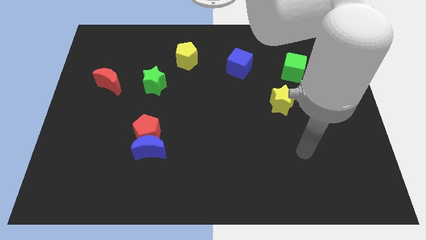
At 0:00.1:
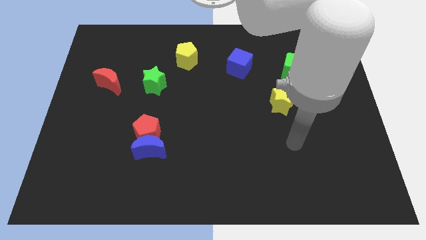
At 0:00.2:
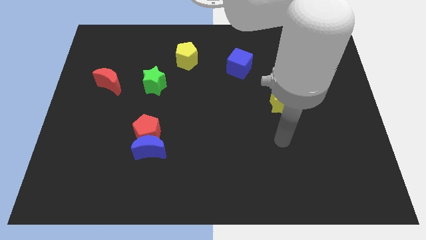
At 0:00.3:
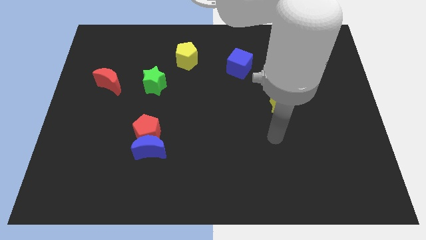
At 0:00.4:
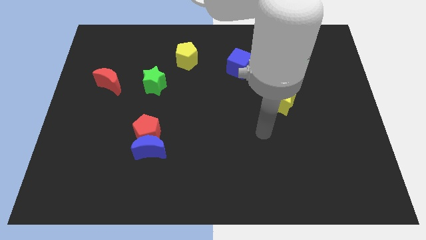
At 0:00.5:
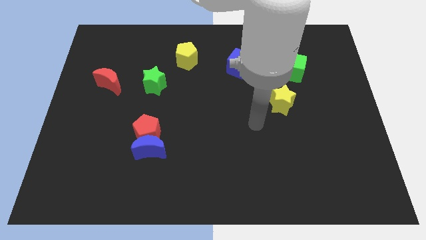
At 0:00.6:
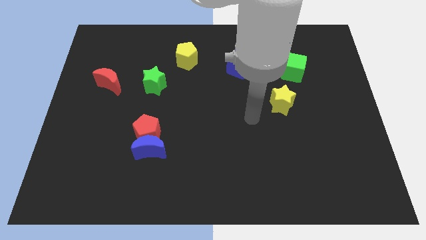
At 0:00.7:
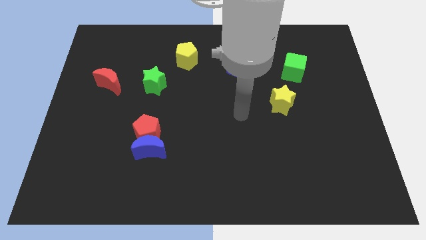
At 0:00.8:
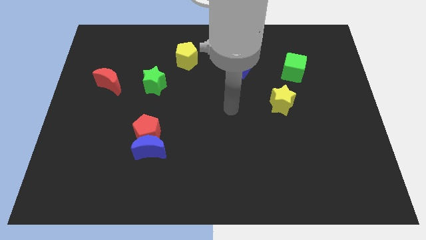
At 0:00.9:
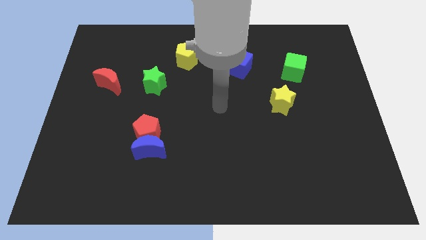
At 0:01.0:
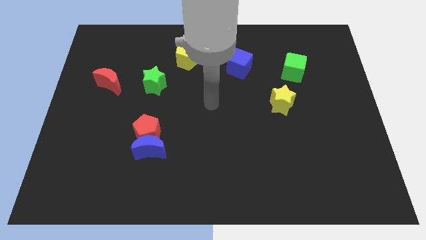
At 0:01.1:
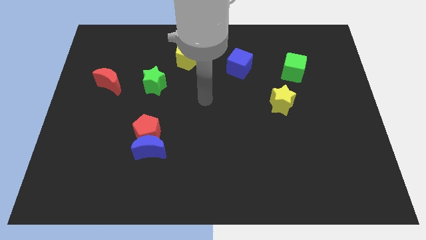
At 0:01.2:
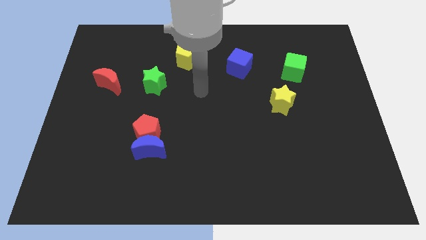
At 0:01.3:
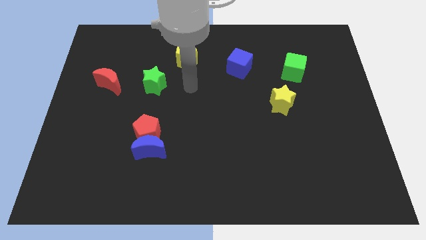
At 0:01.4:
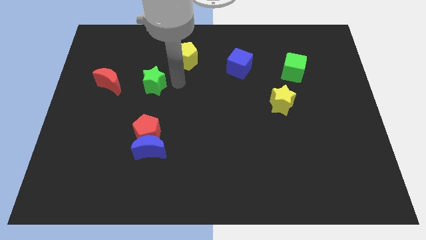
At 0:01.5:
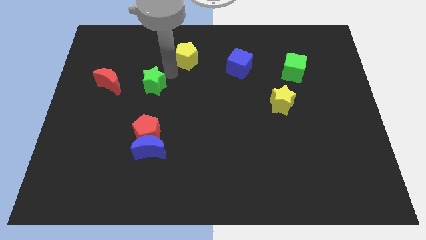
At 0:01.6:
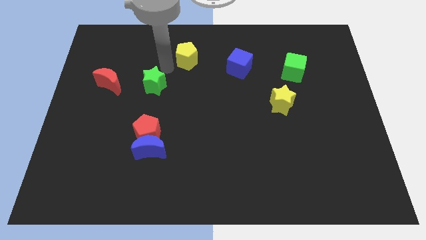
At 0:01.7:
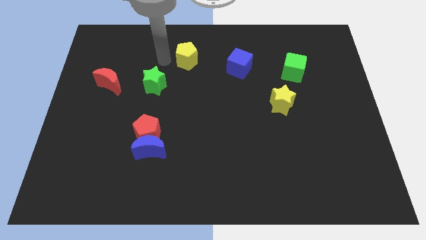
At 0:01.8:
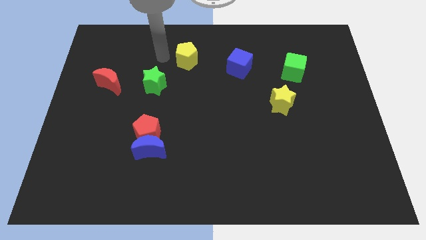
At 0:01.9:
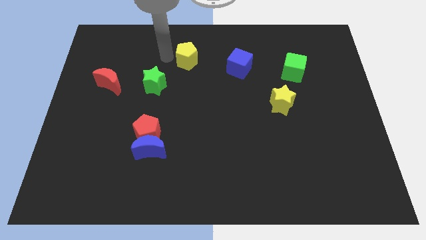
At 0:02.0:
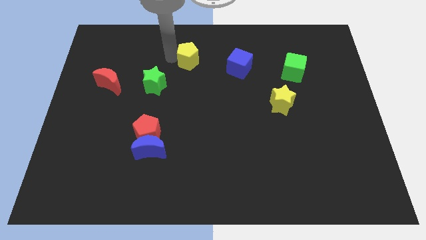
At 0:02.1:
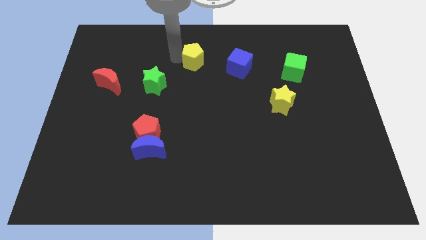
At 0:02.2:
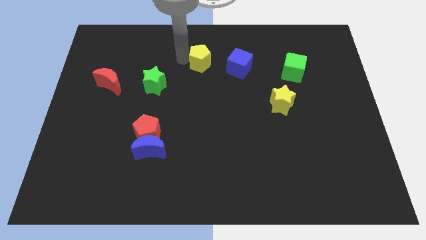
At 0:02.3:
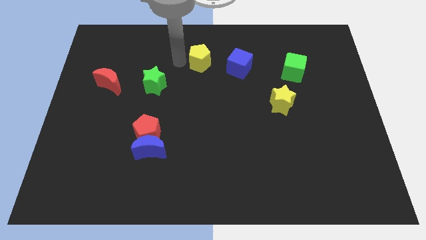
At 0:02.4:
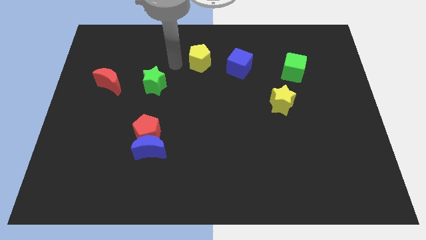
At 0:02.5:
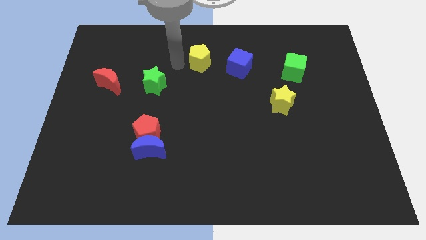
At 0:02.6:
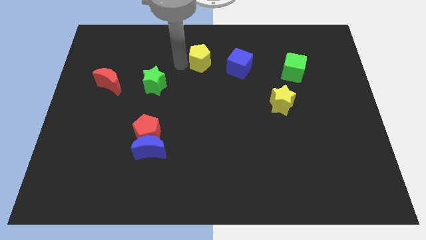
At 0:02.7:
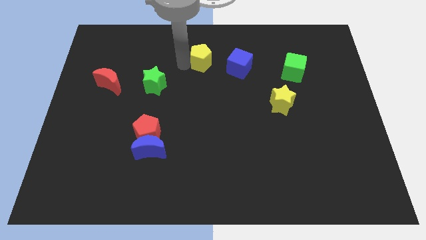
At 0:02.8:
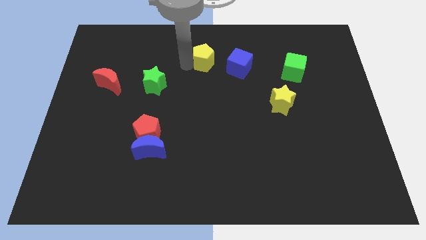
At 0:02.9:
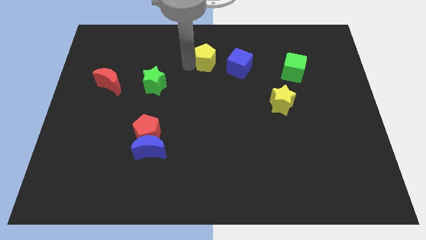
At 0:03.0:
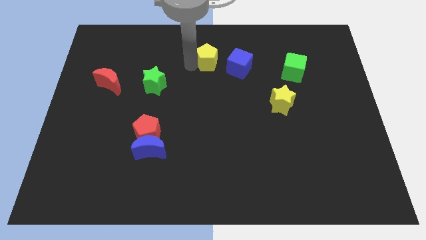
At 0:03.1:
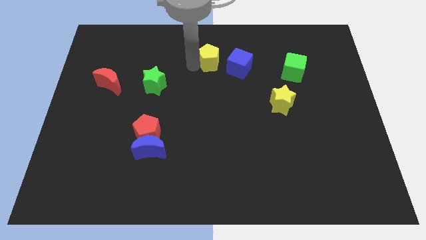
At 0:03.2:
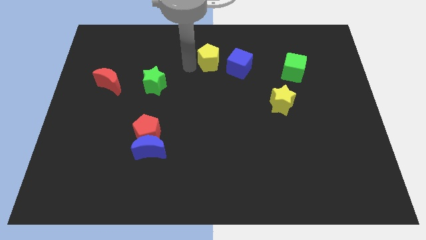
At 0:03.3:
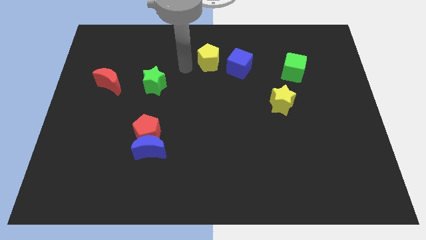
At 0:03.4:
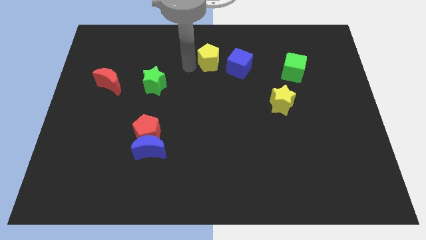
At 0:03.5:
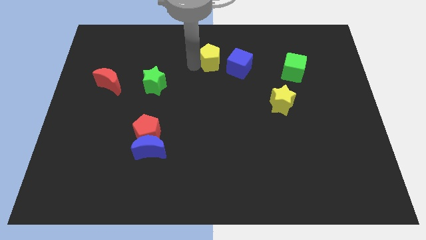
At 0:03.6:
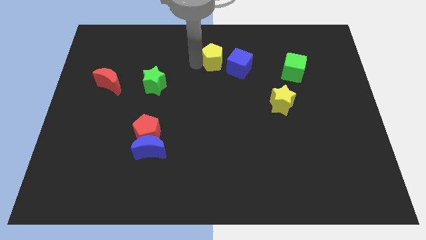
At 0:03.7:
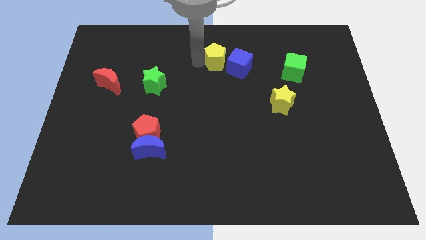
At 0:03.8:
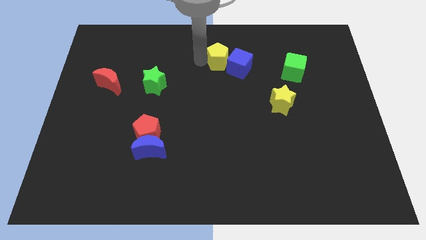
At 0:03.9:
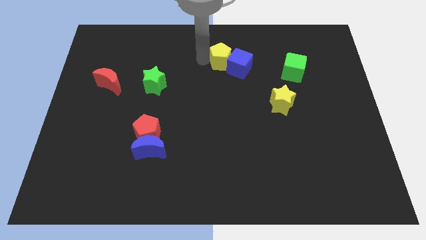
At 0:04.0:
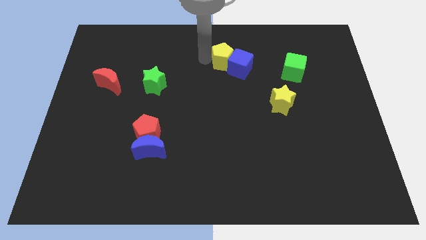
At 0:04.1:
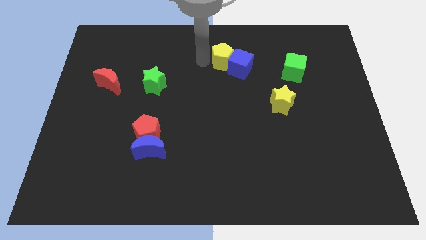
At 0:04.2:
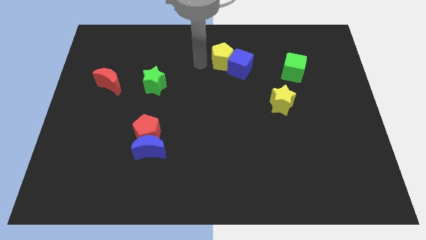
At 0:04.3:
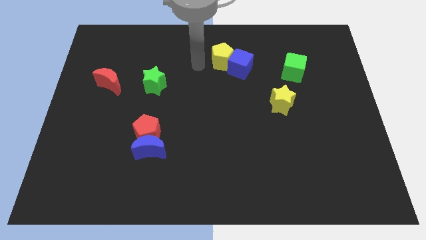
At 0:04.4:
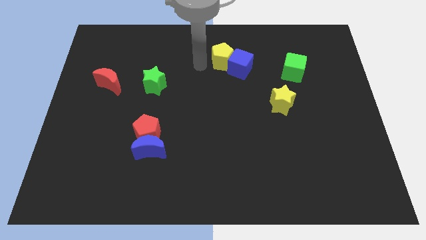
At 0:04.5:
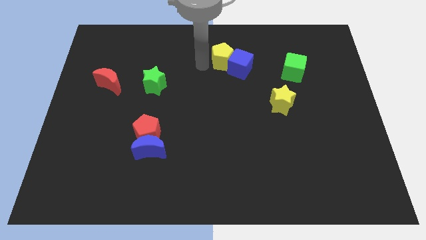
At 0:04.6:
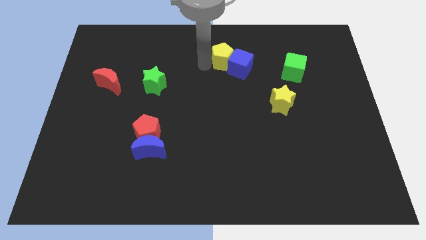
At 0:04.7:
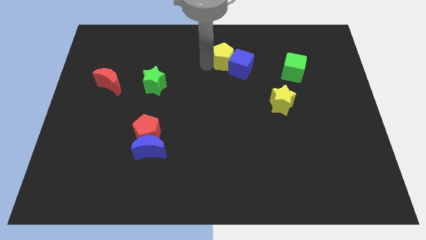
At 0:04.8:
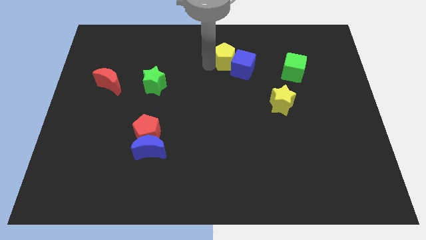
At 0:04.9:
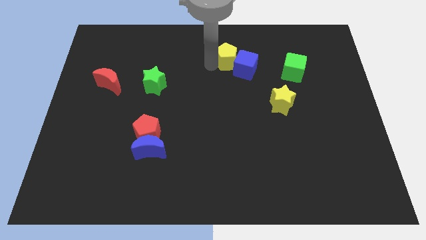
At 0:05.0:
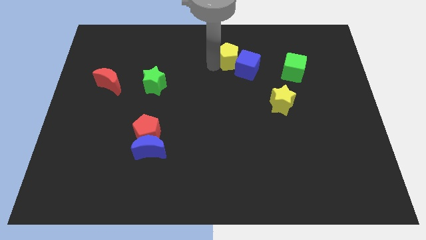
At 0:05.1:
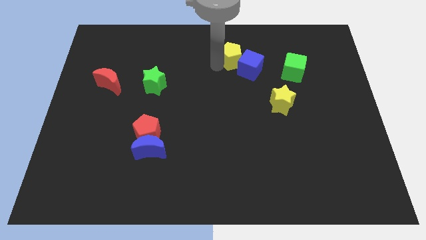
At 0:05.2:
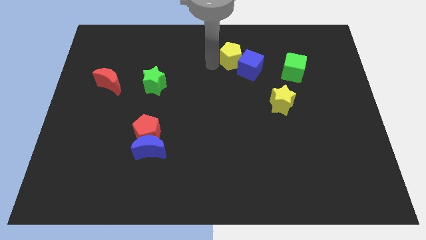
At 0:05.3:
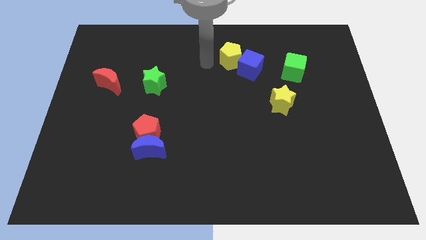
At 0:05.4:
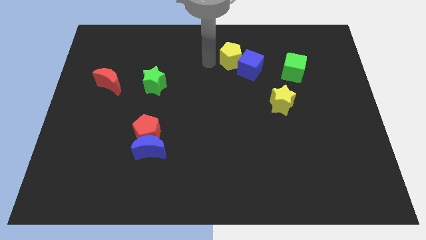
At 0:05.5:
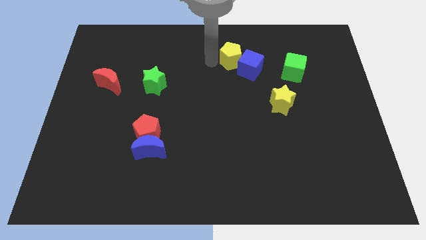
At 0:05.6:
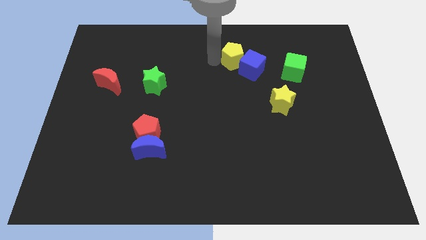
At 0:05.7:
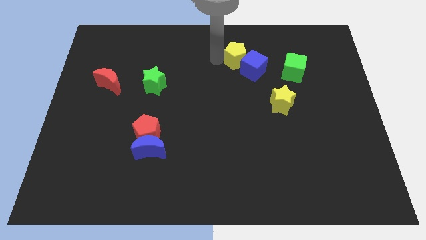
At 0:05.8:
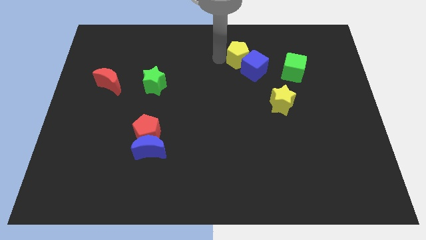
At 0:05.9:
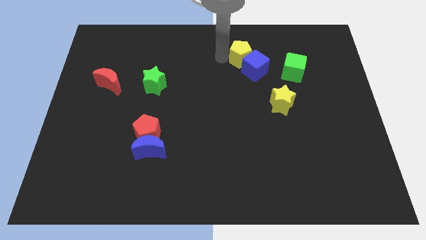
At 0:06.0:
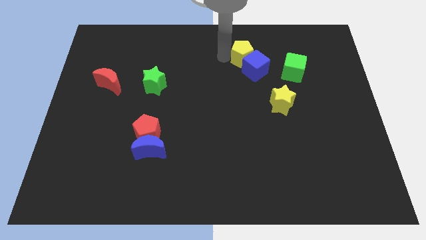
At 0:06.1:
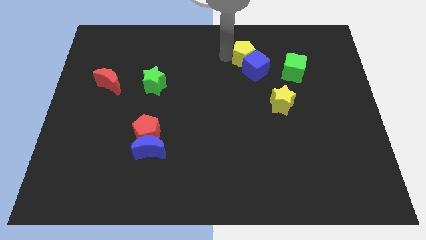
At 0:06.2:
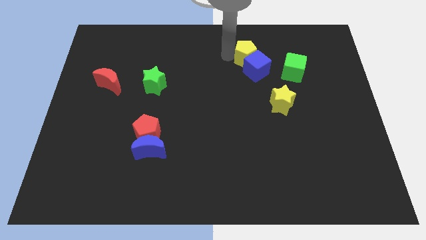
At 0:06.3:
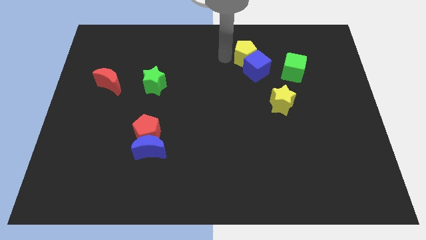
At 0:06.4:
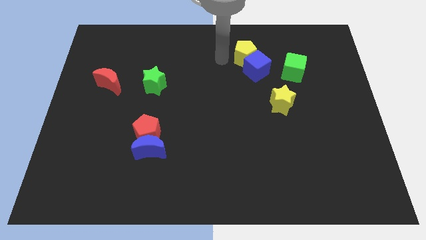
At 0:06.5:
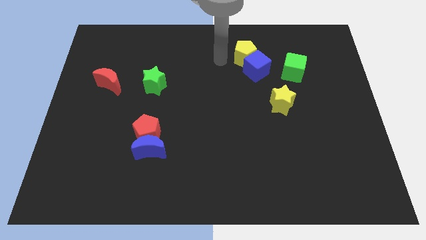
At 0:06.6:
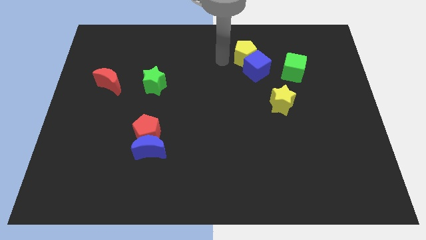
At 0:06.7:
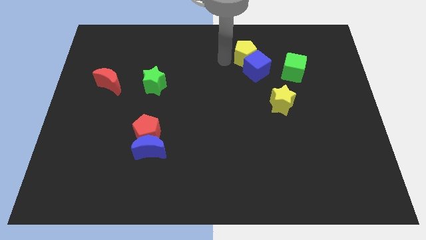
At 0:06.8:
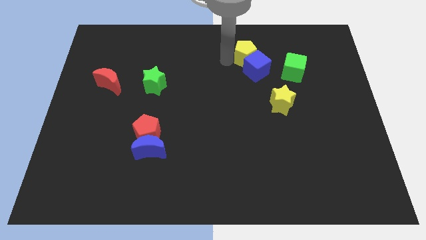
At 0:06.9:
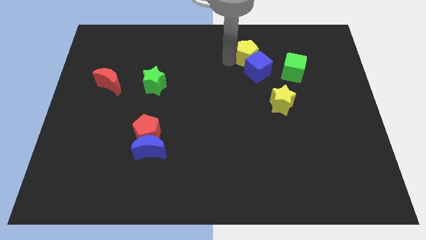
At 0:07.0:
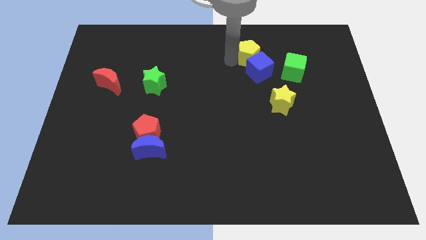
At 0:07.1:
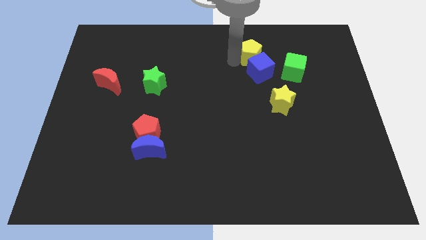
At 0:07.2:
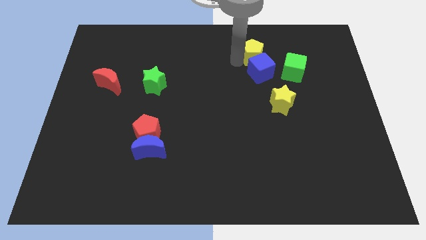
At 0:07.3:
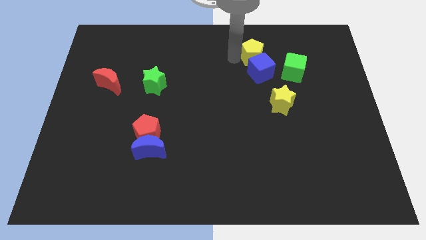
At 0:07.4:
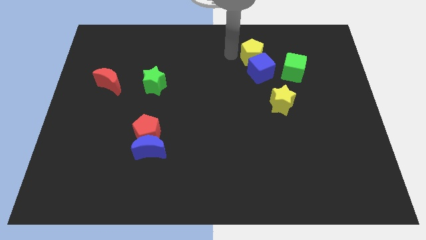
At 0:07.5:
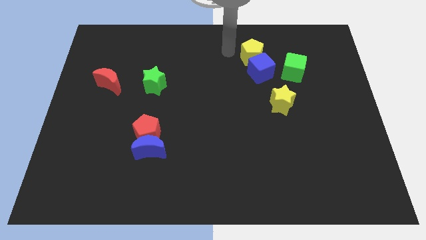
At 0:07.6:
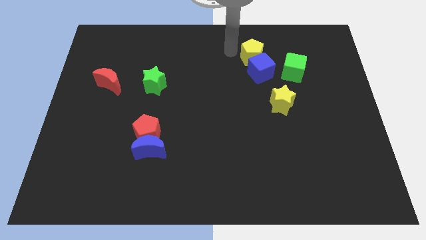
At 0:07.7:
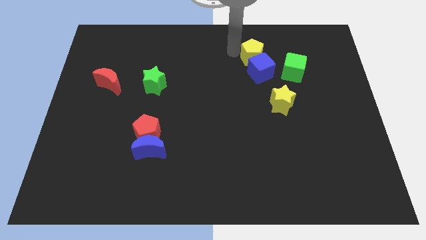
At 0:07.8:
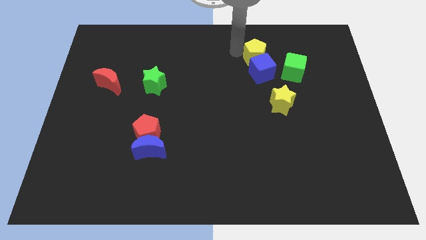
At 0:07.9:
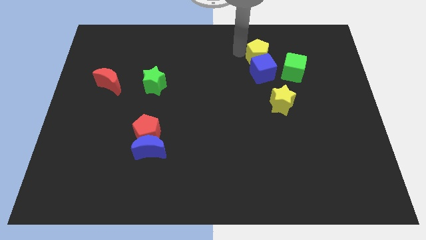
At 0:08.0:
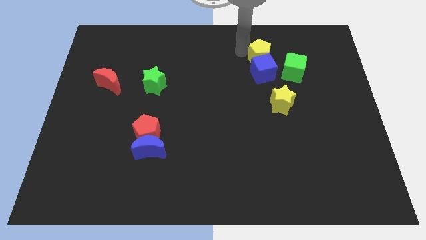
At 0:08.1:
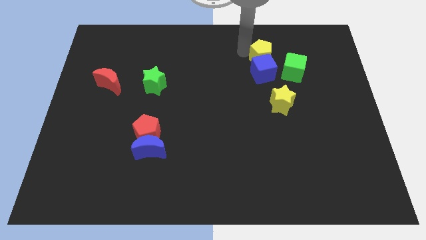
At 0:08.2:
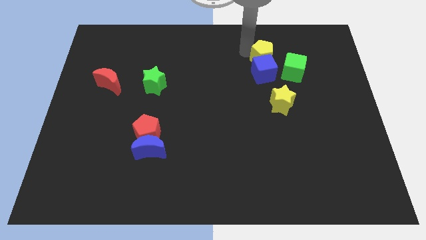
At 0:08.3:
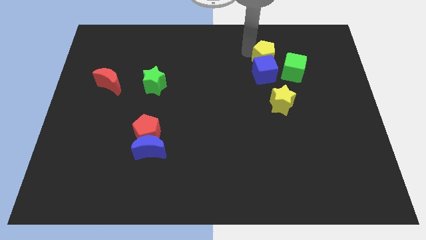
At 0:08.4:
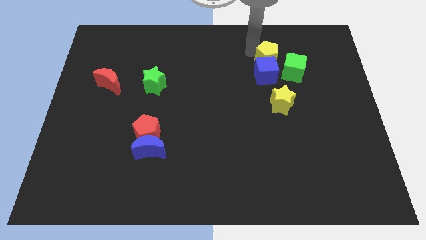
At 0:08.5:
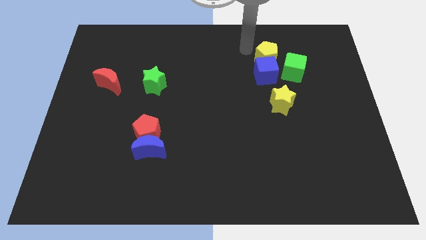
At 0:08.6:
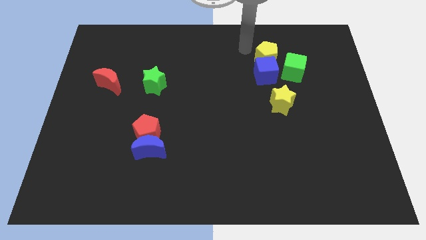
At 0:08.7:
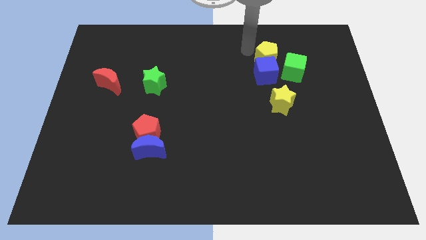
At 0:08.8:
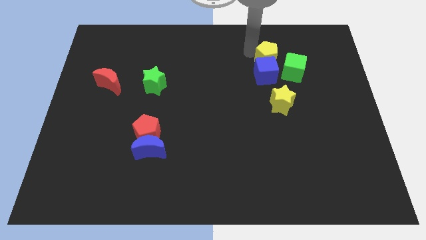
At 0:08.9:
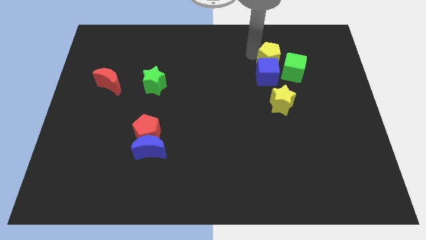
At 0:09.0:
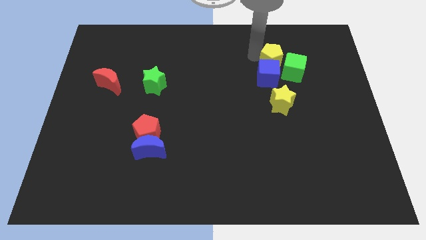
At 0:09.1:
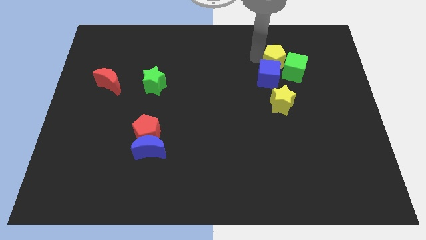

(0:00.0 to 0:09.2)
push the yellow pentagon to the green cube
